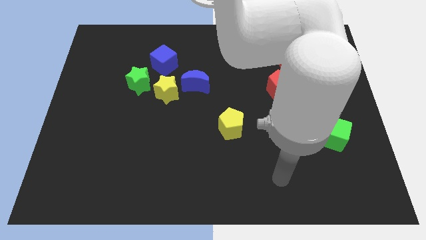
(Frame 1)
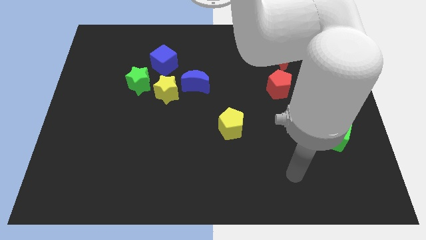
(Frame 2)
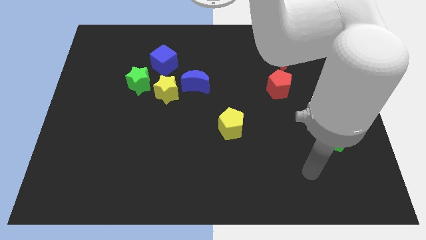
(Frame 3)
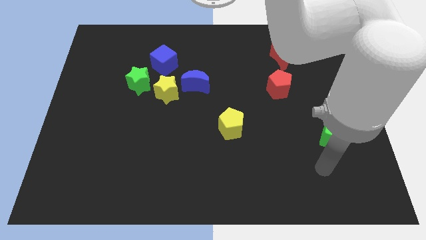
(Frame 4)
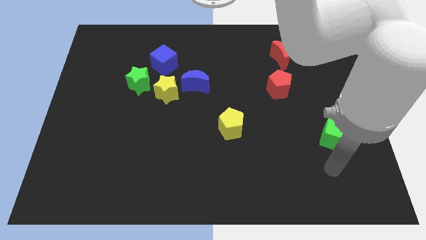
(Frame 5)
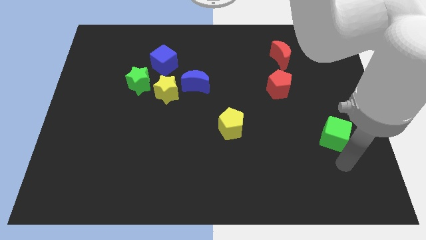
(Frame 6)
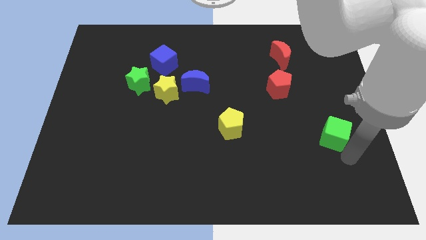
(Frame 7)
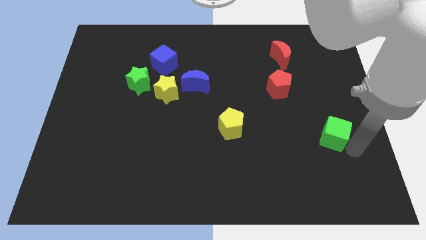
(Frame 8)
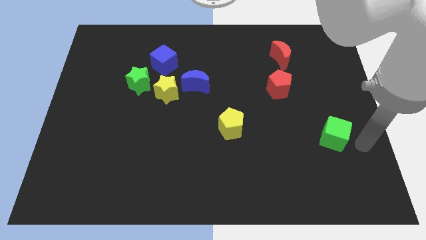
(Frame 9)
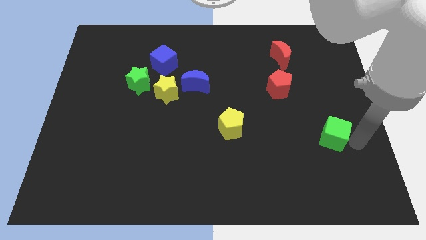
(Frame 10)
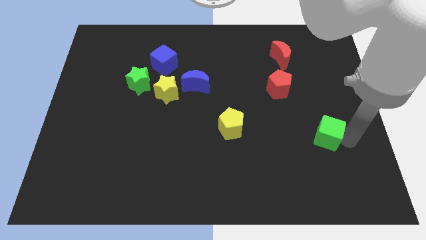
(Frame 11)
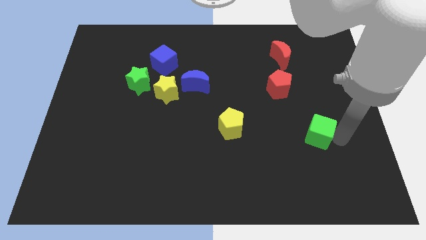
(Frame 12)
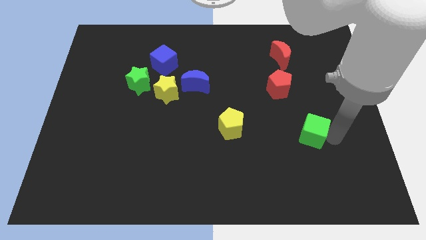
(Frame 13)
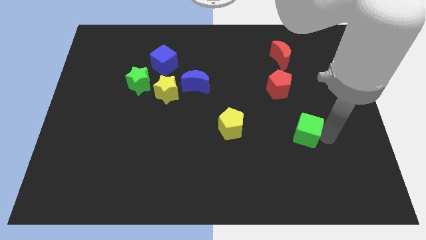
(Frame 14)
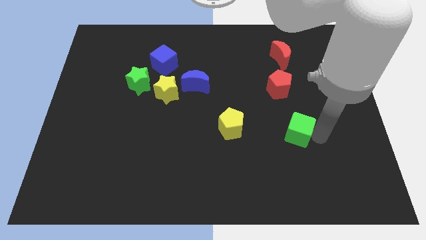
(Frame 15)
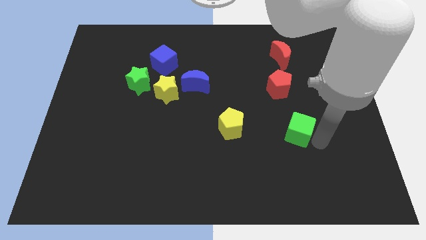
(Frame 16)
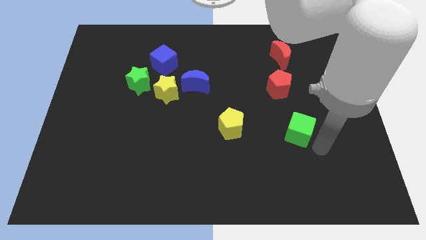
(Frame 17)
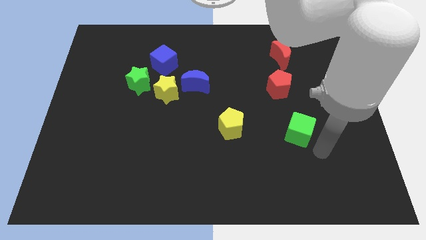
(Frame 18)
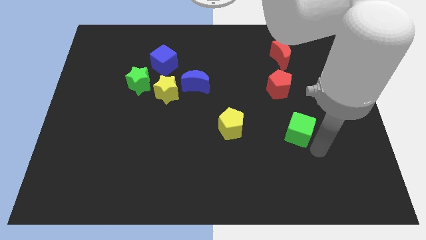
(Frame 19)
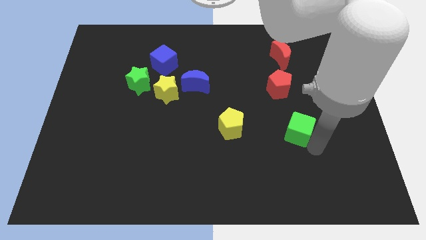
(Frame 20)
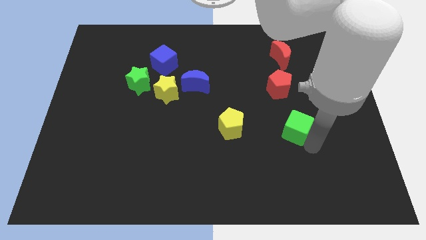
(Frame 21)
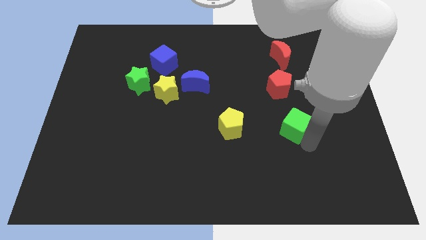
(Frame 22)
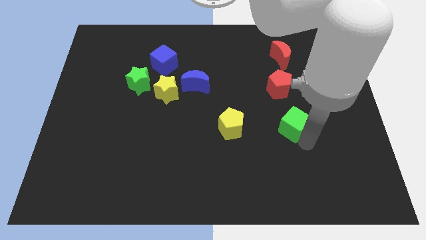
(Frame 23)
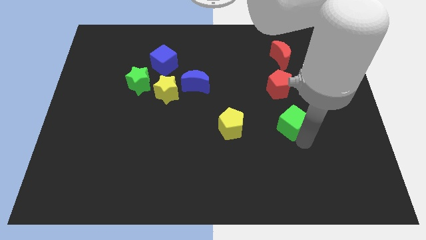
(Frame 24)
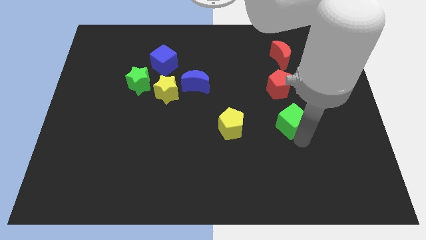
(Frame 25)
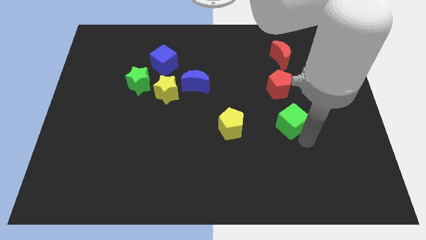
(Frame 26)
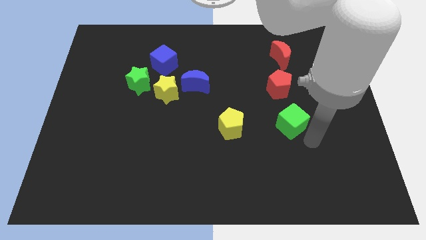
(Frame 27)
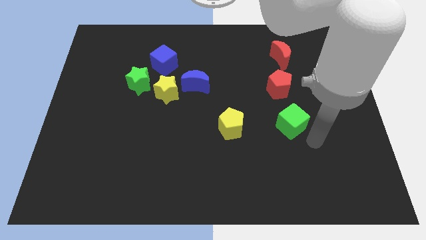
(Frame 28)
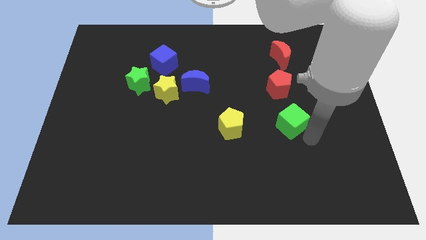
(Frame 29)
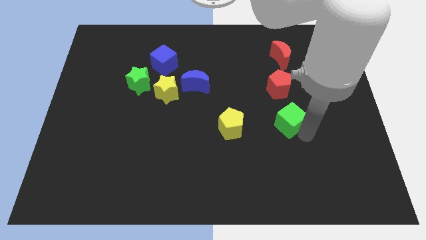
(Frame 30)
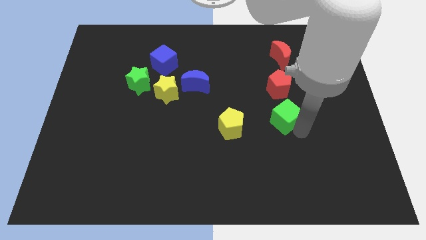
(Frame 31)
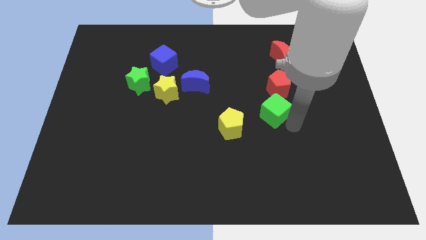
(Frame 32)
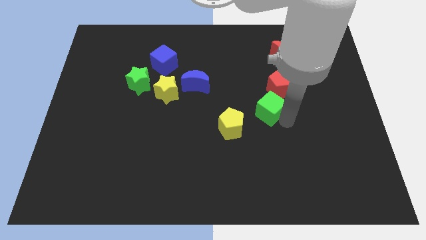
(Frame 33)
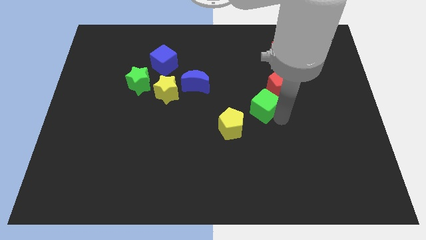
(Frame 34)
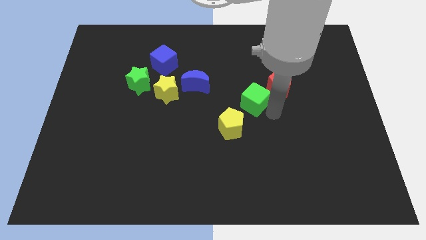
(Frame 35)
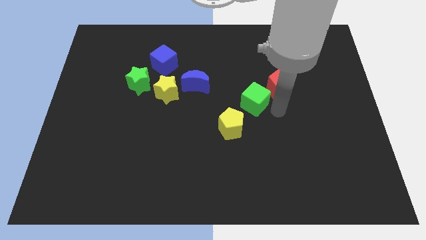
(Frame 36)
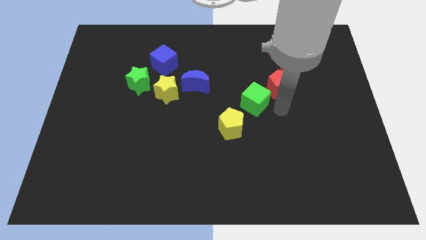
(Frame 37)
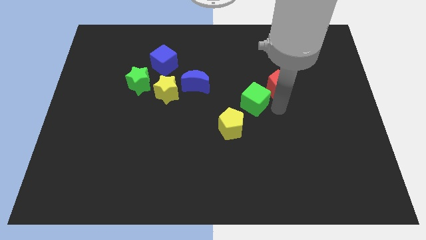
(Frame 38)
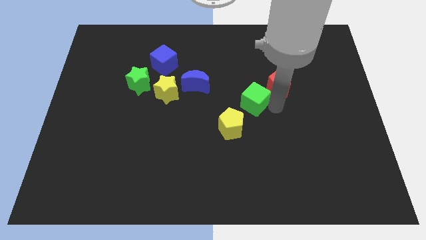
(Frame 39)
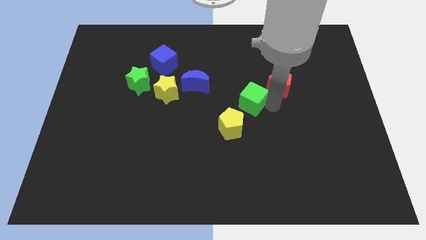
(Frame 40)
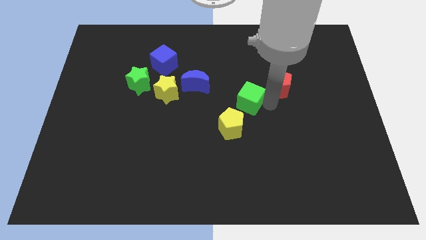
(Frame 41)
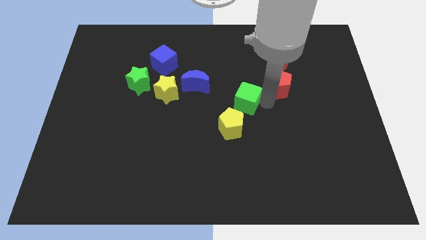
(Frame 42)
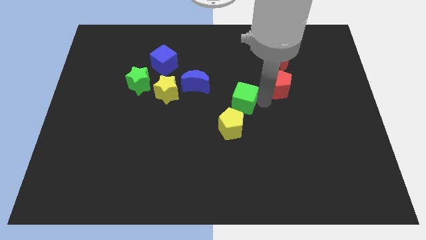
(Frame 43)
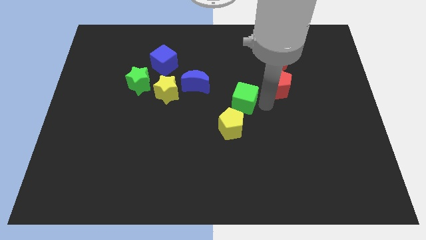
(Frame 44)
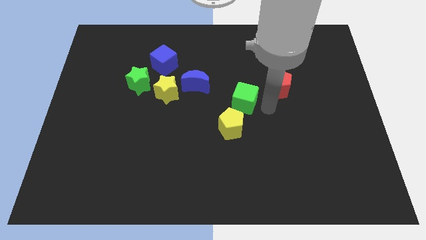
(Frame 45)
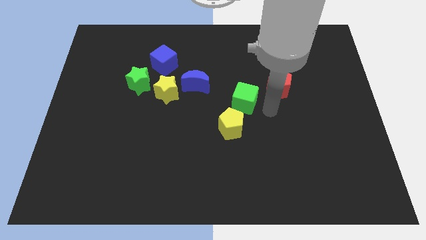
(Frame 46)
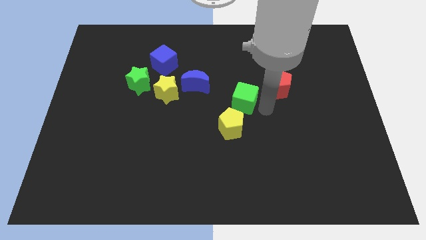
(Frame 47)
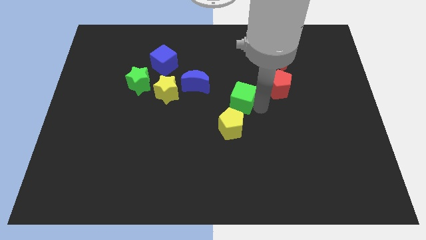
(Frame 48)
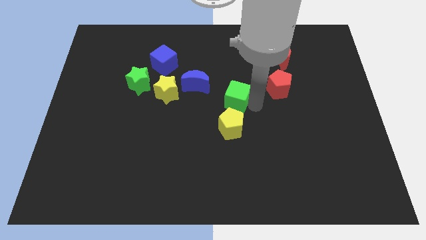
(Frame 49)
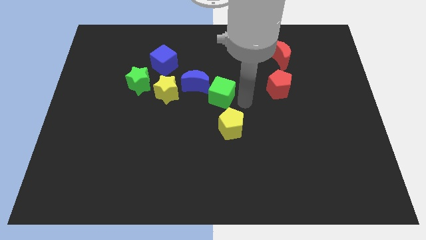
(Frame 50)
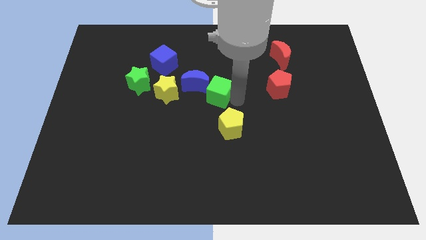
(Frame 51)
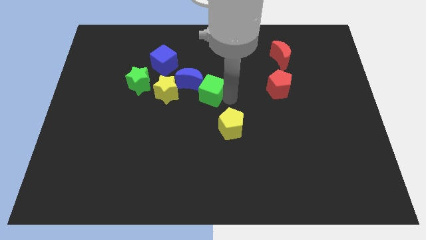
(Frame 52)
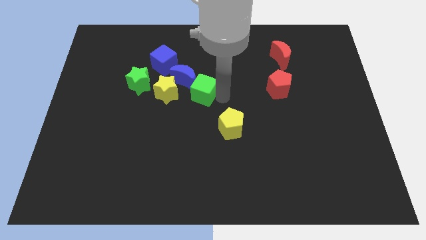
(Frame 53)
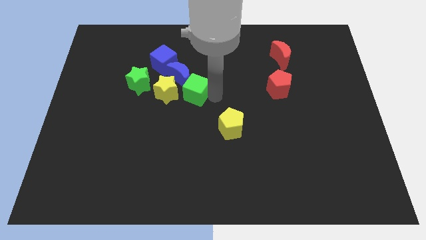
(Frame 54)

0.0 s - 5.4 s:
move the green cube towards the blue moon

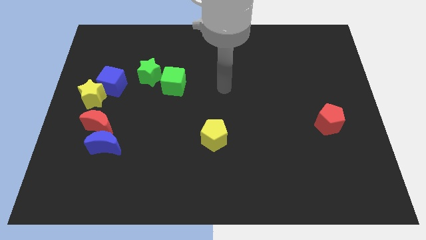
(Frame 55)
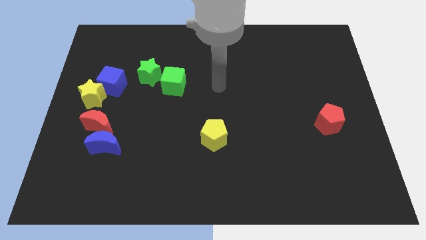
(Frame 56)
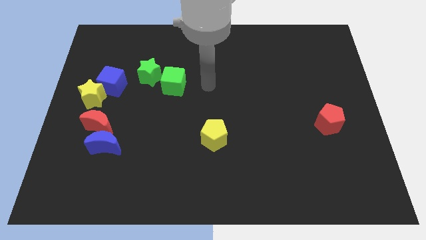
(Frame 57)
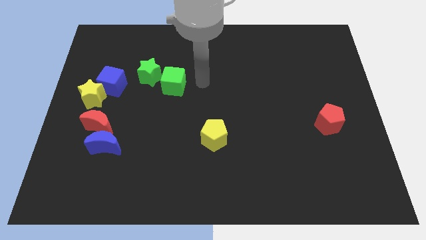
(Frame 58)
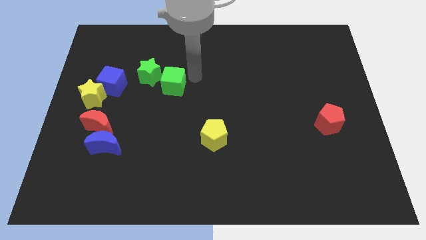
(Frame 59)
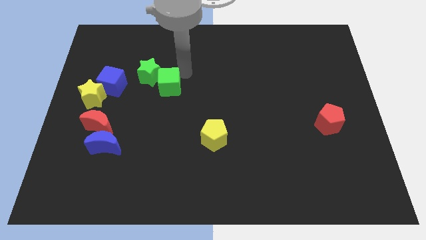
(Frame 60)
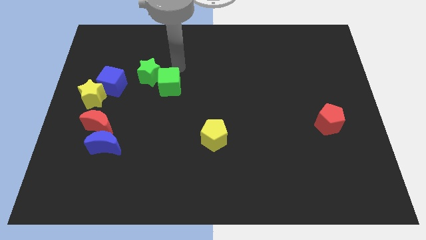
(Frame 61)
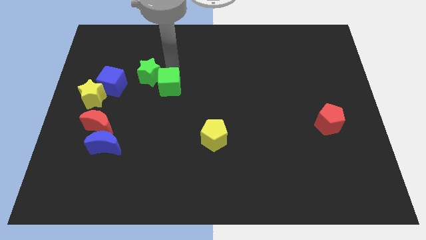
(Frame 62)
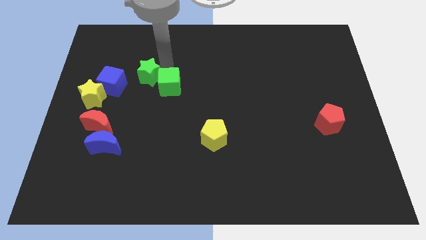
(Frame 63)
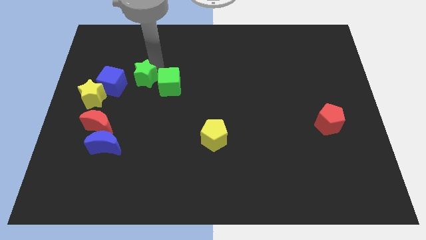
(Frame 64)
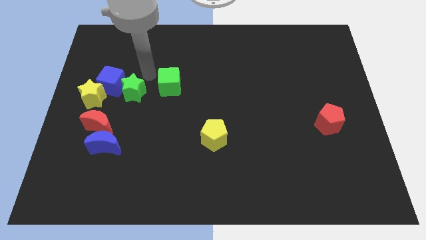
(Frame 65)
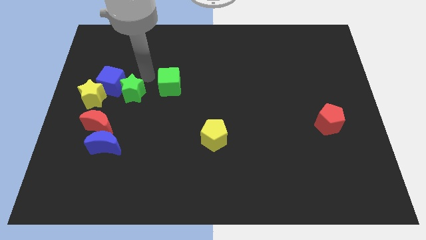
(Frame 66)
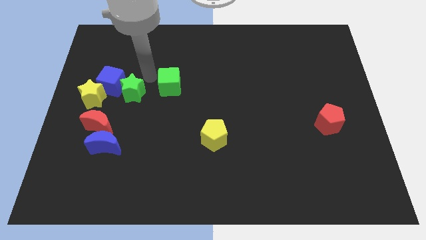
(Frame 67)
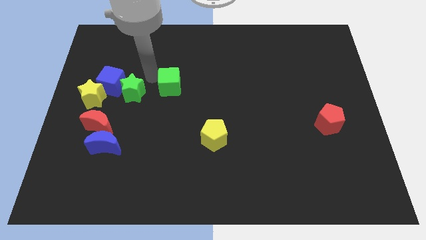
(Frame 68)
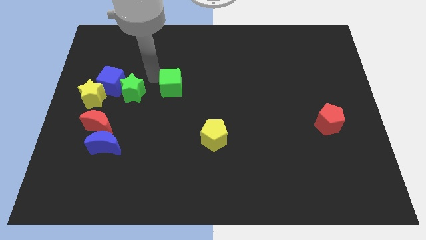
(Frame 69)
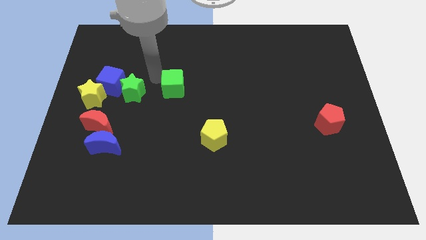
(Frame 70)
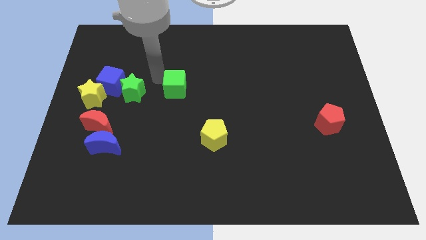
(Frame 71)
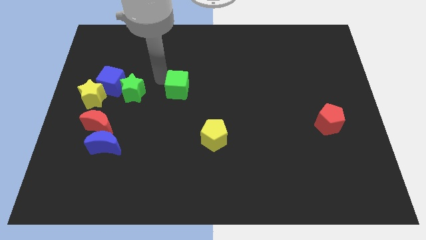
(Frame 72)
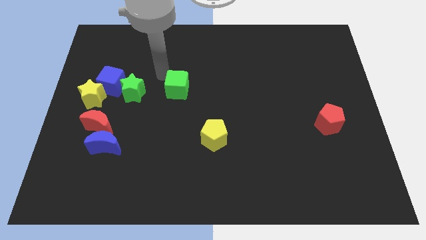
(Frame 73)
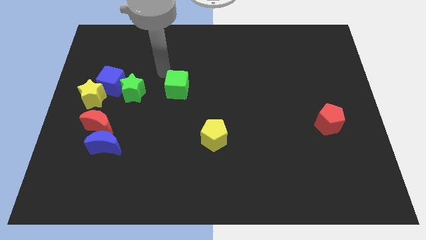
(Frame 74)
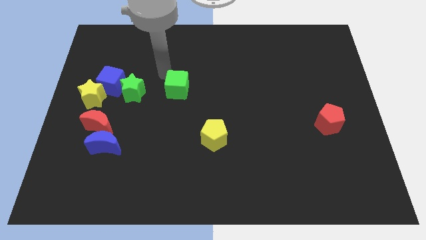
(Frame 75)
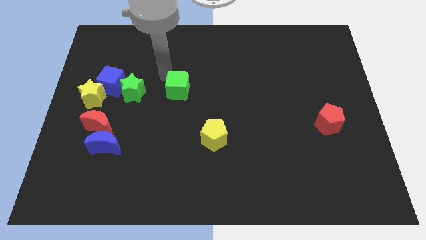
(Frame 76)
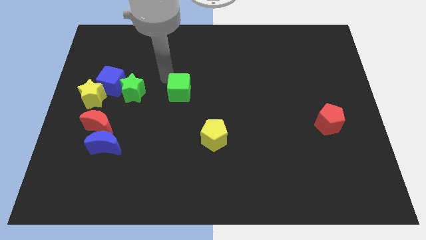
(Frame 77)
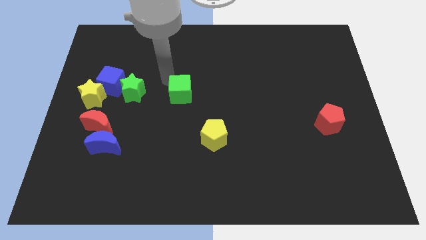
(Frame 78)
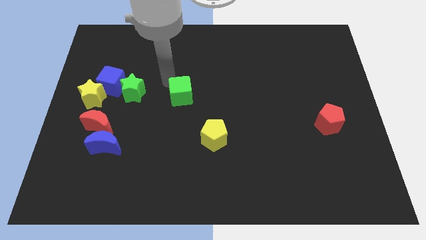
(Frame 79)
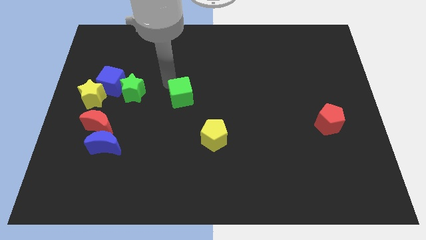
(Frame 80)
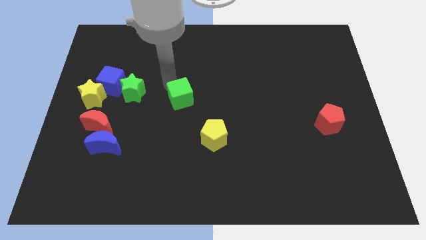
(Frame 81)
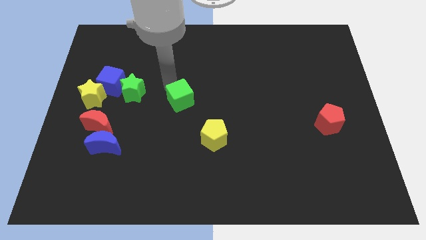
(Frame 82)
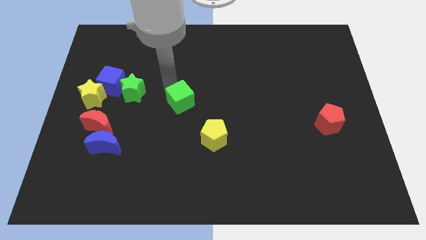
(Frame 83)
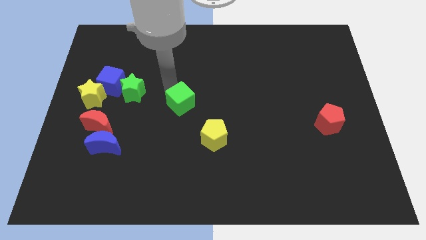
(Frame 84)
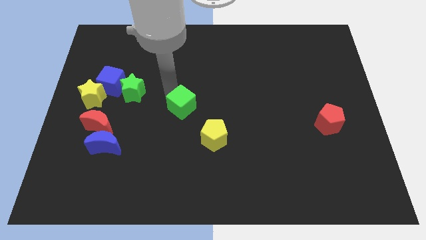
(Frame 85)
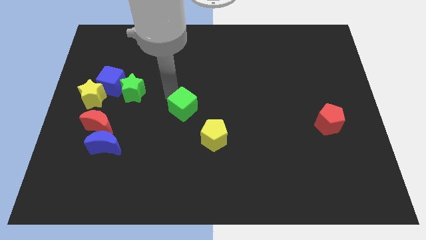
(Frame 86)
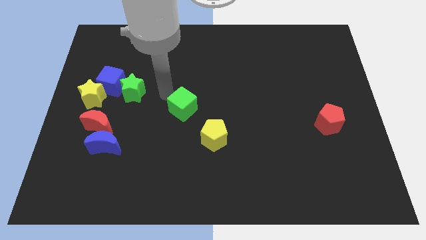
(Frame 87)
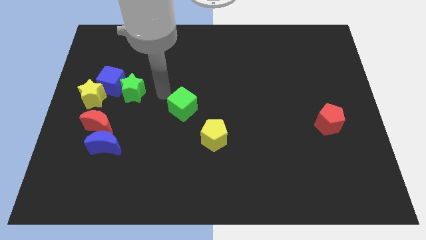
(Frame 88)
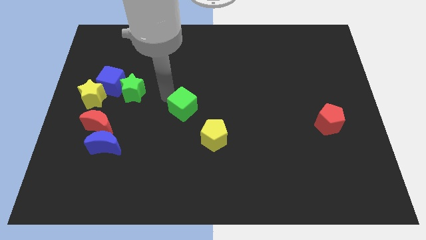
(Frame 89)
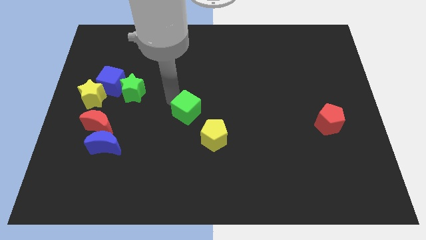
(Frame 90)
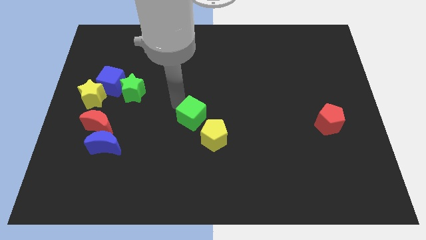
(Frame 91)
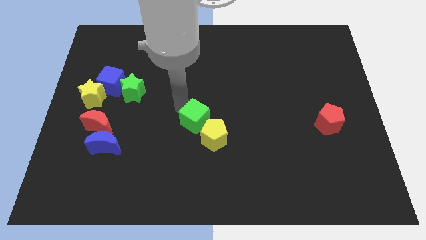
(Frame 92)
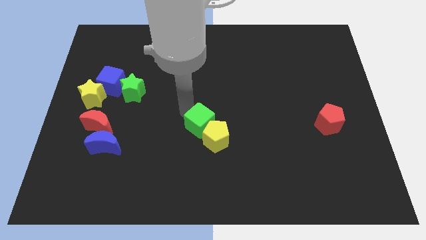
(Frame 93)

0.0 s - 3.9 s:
move the green cube towards the yellow pentagon
